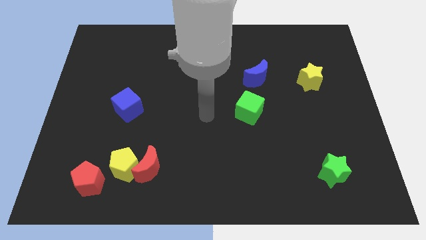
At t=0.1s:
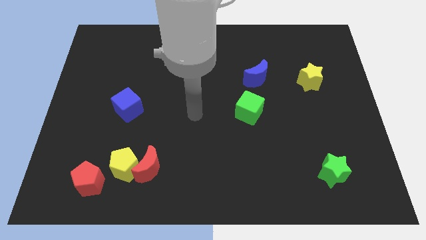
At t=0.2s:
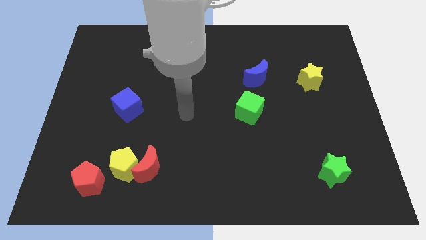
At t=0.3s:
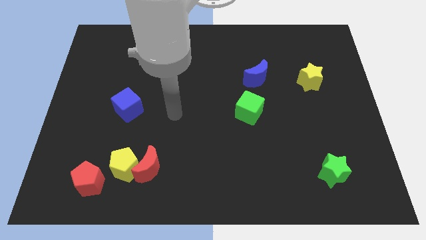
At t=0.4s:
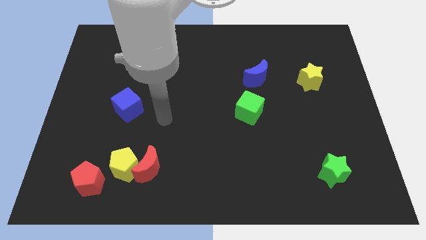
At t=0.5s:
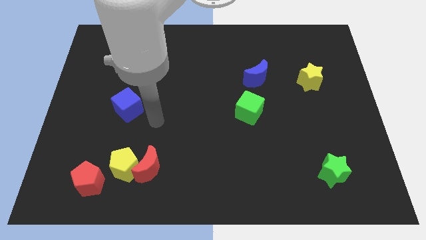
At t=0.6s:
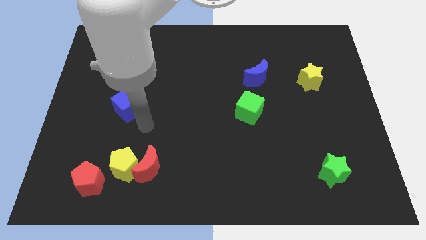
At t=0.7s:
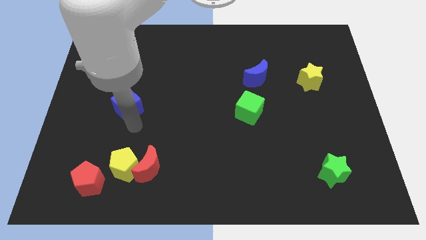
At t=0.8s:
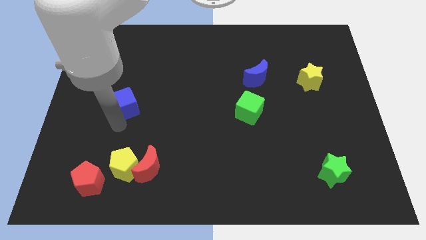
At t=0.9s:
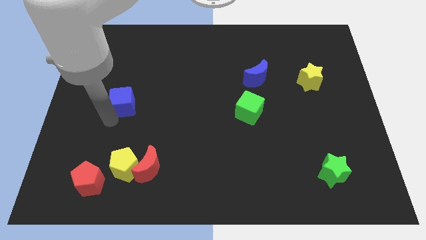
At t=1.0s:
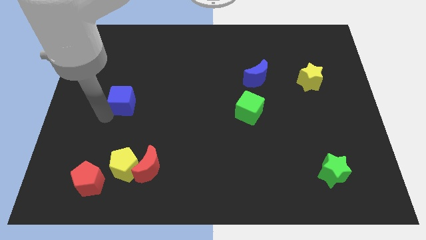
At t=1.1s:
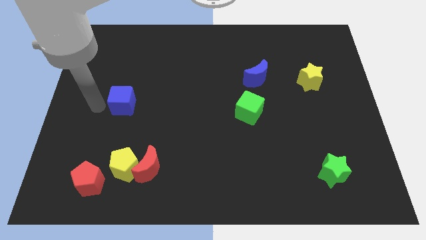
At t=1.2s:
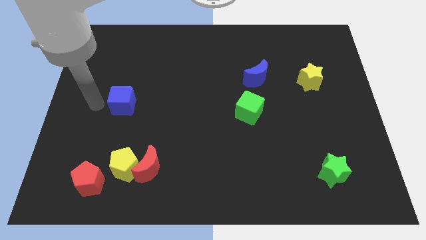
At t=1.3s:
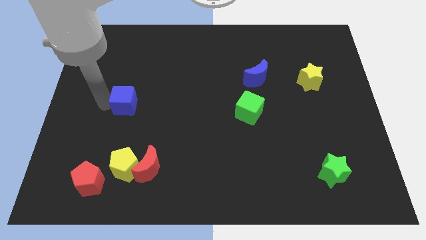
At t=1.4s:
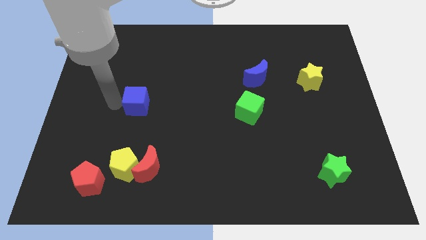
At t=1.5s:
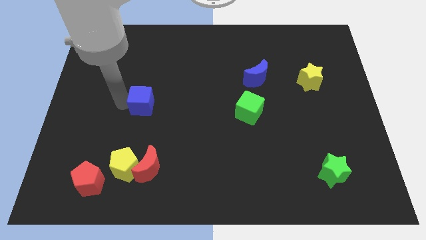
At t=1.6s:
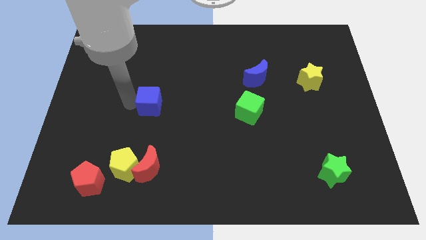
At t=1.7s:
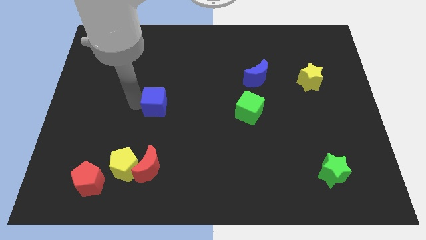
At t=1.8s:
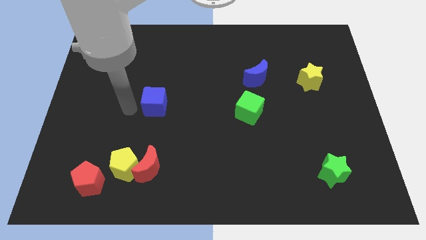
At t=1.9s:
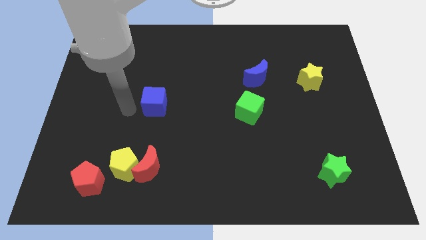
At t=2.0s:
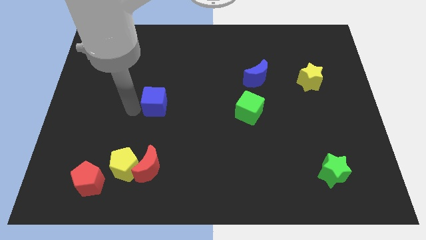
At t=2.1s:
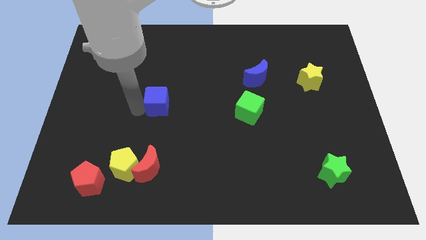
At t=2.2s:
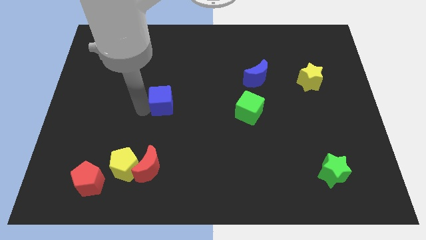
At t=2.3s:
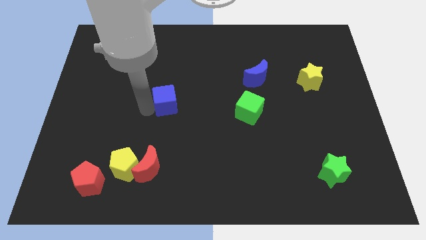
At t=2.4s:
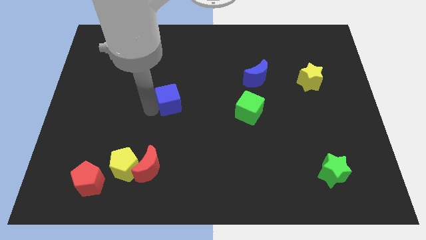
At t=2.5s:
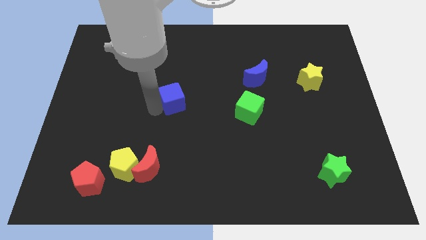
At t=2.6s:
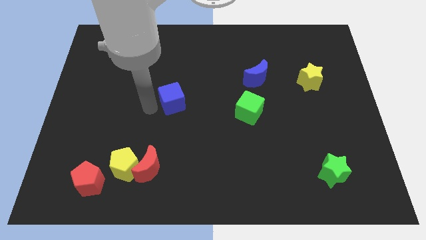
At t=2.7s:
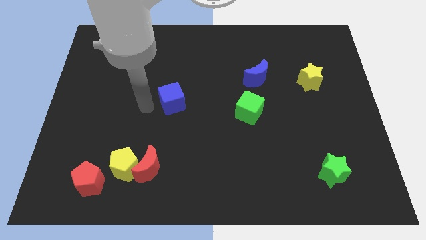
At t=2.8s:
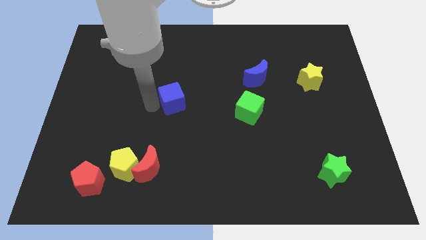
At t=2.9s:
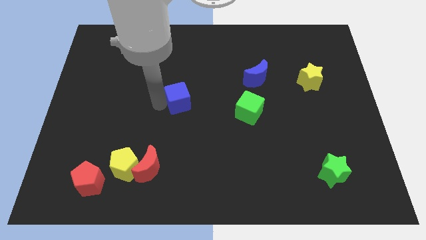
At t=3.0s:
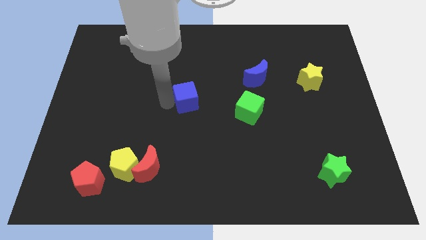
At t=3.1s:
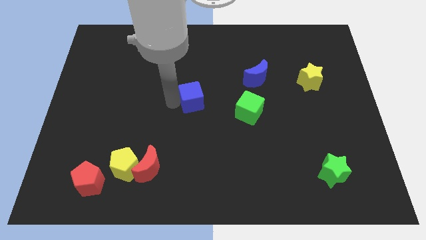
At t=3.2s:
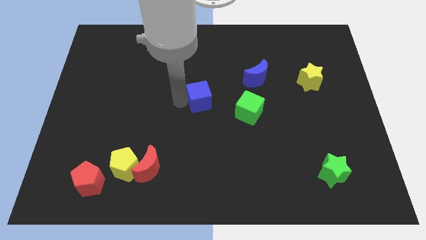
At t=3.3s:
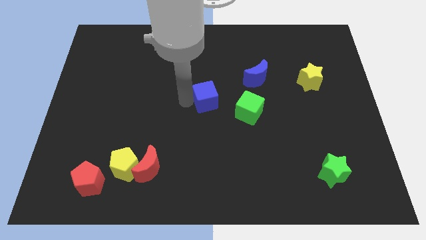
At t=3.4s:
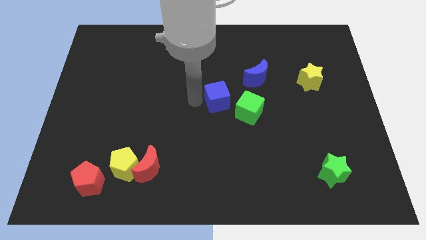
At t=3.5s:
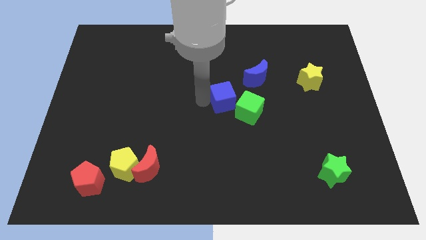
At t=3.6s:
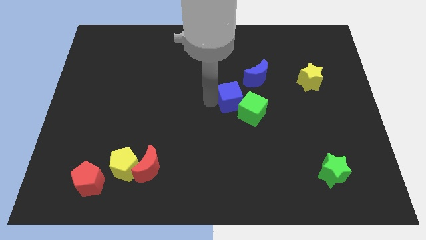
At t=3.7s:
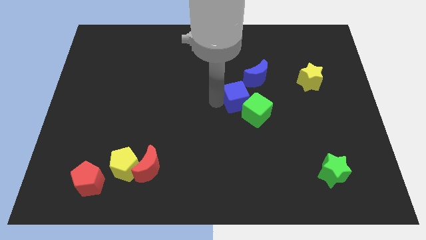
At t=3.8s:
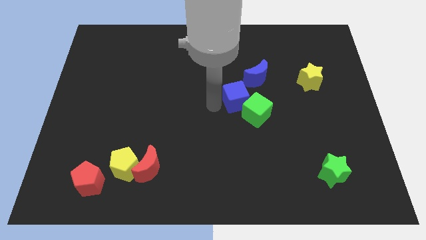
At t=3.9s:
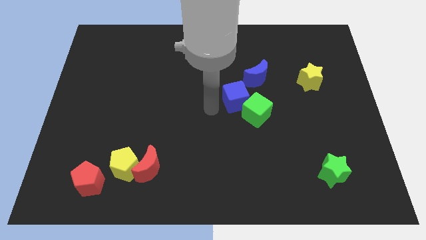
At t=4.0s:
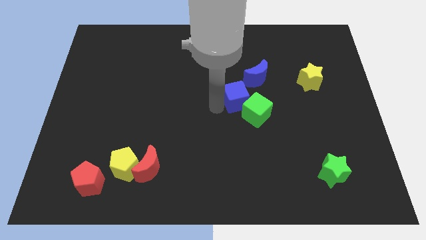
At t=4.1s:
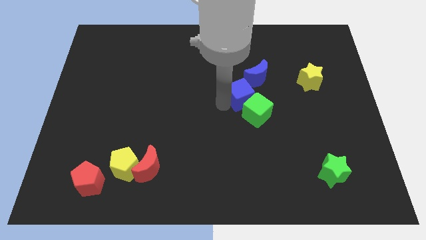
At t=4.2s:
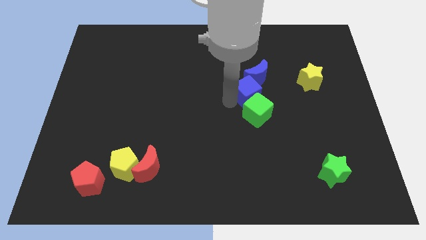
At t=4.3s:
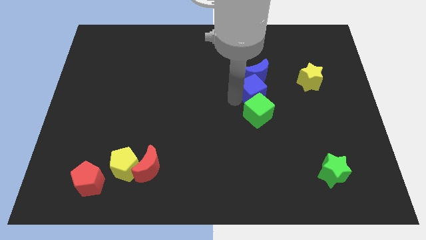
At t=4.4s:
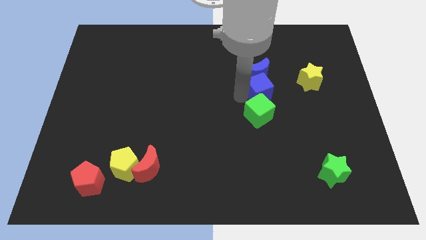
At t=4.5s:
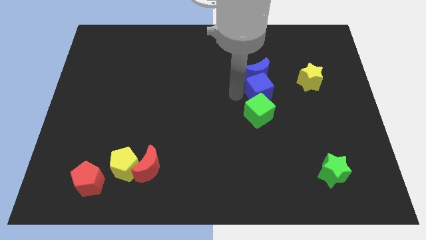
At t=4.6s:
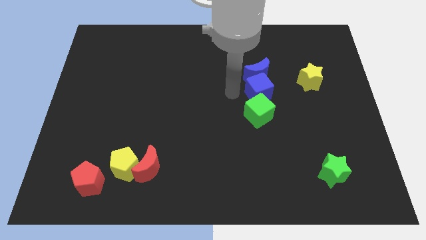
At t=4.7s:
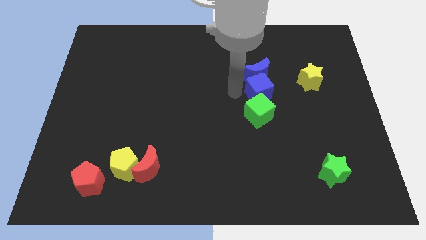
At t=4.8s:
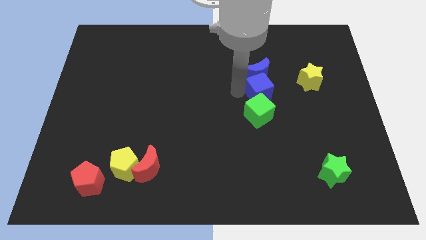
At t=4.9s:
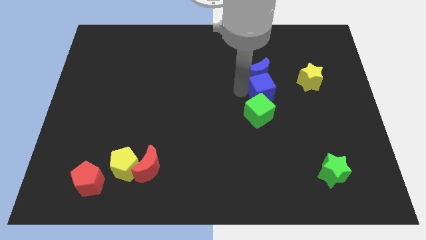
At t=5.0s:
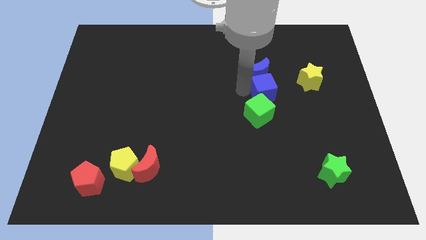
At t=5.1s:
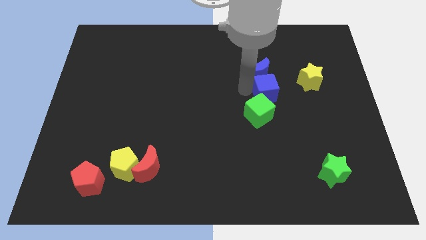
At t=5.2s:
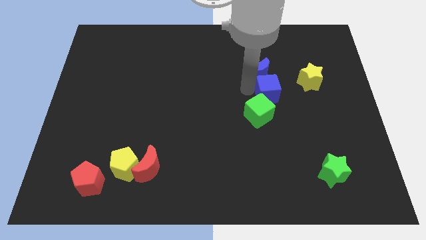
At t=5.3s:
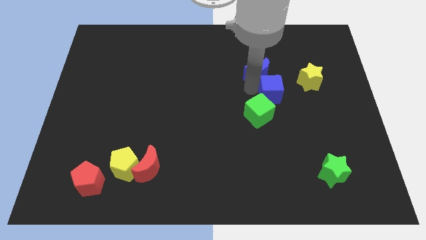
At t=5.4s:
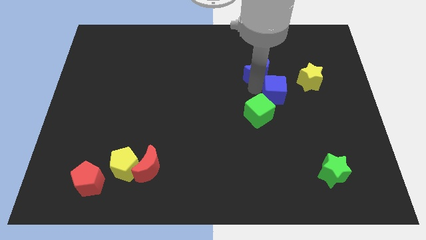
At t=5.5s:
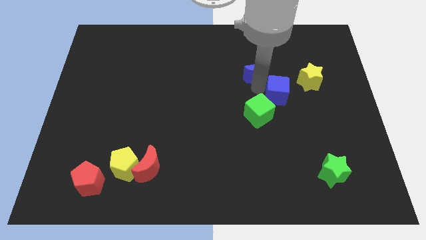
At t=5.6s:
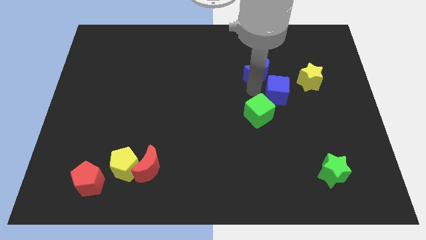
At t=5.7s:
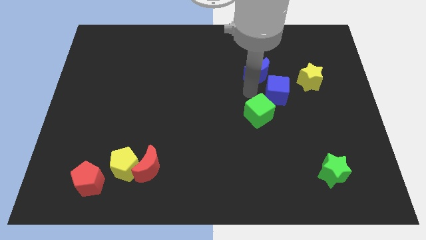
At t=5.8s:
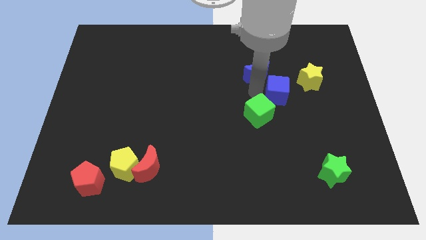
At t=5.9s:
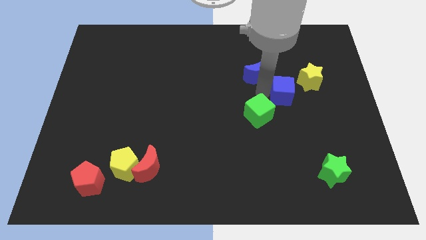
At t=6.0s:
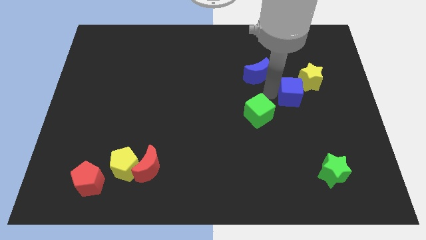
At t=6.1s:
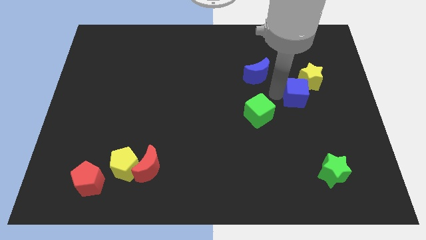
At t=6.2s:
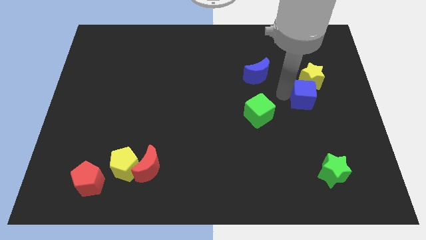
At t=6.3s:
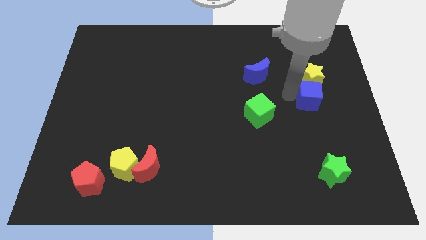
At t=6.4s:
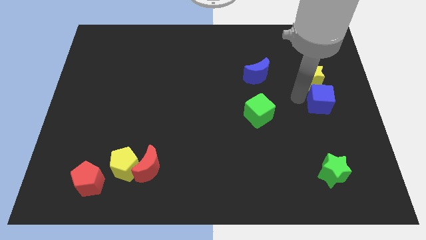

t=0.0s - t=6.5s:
put the blue cube to the right side of the board
